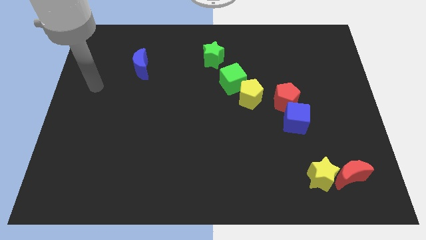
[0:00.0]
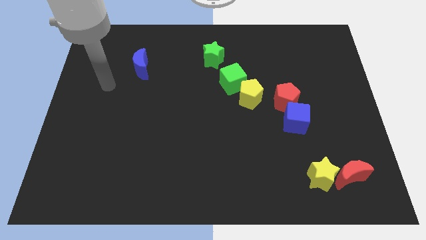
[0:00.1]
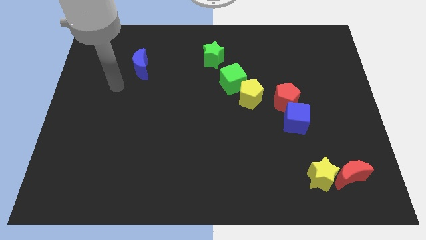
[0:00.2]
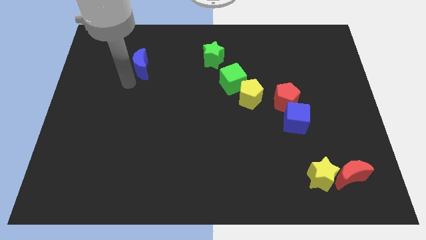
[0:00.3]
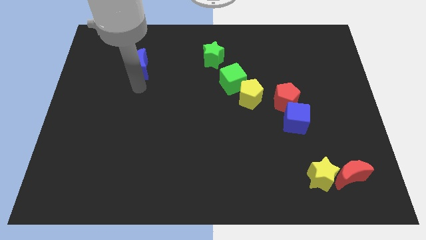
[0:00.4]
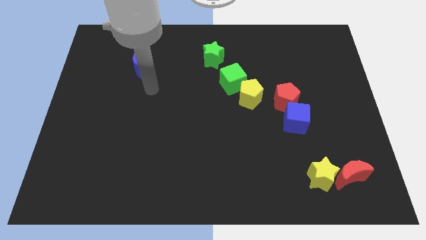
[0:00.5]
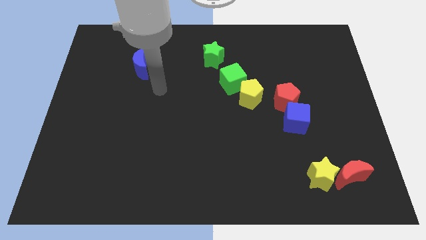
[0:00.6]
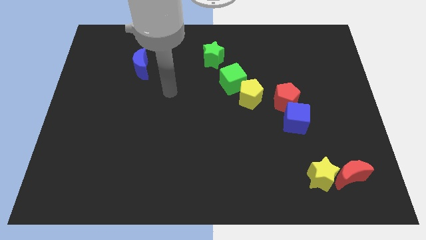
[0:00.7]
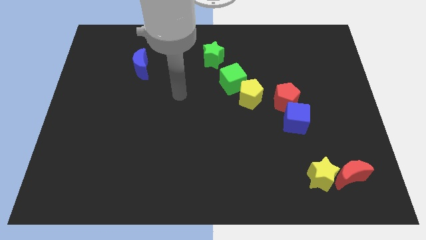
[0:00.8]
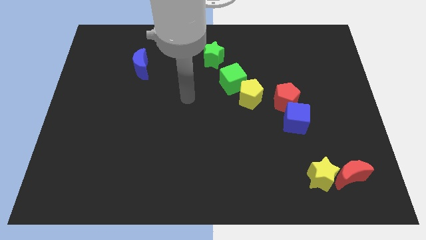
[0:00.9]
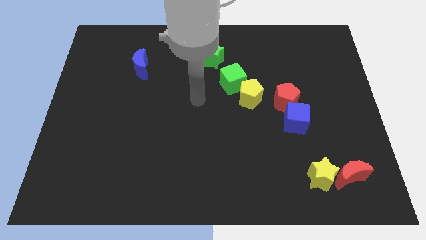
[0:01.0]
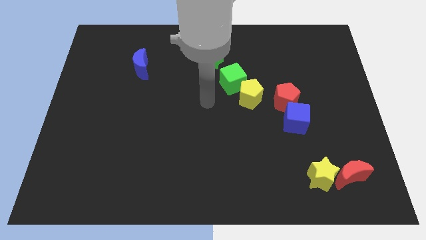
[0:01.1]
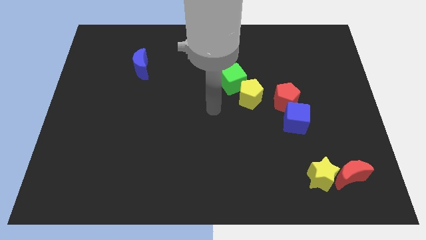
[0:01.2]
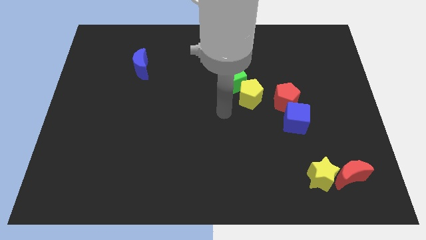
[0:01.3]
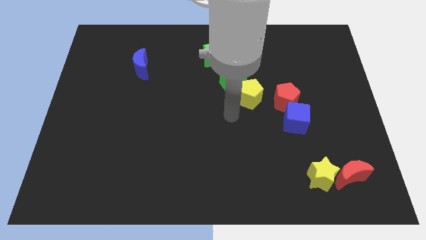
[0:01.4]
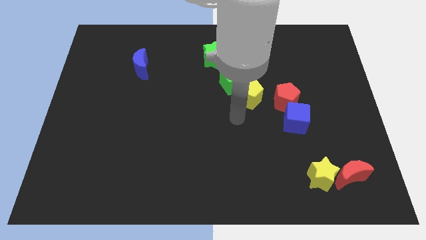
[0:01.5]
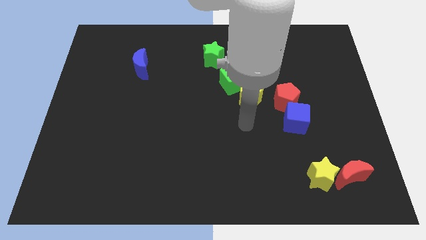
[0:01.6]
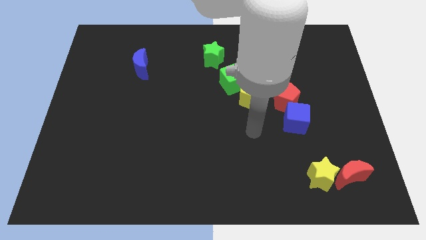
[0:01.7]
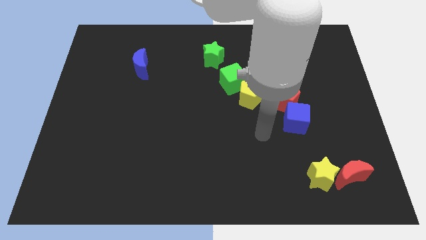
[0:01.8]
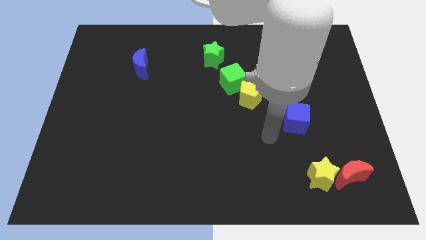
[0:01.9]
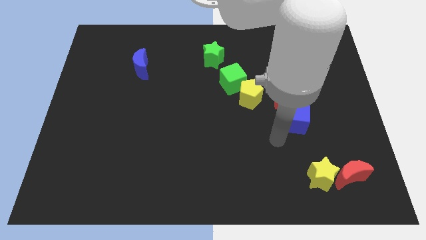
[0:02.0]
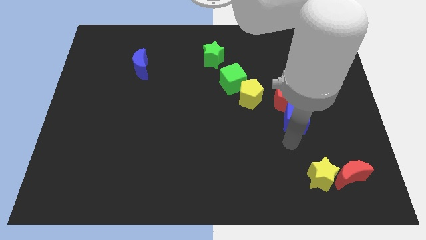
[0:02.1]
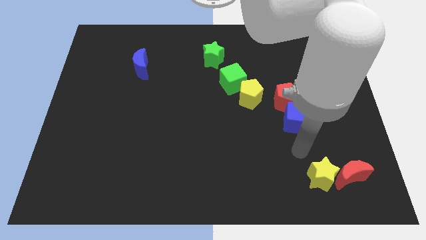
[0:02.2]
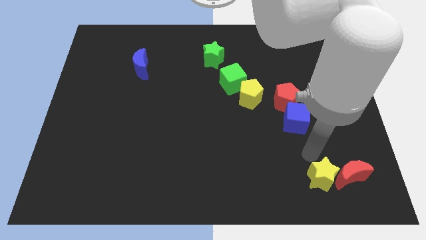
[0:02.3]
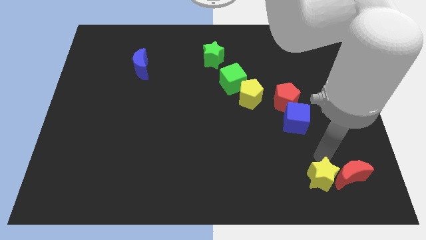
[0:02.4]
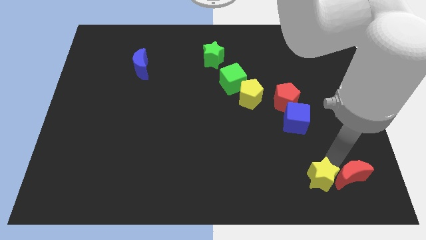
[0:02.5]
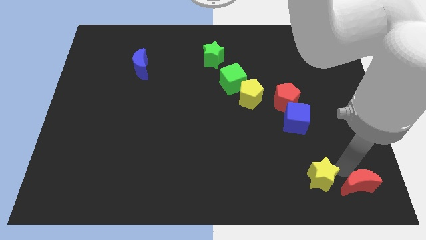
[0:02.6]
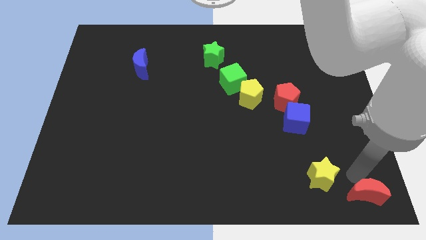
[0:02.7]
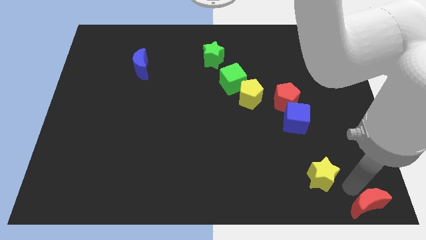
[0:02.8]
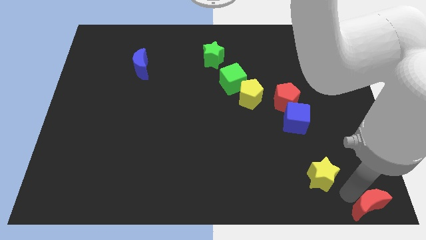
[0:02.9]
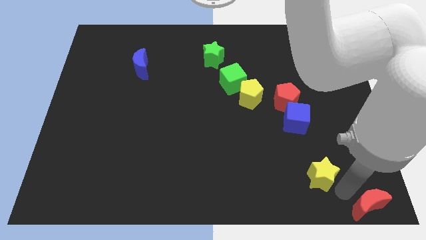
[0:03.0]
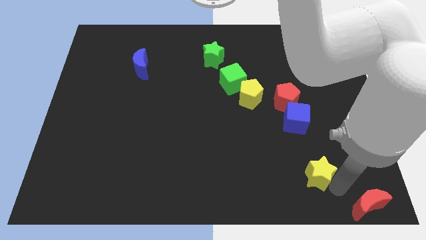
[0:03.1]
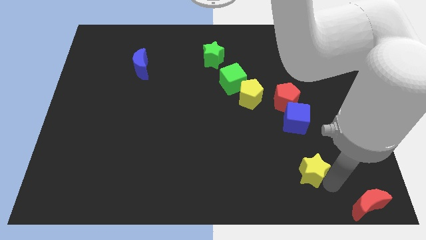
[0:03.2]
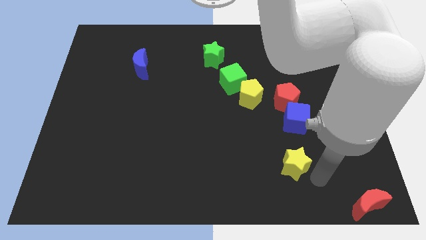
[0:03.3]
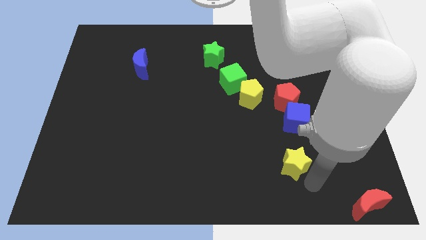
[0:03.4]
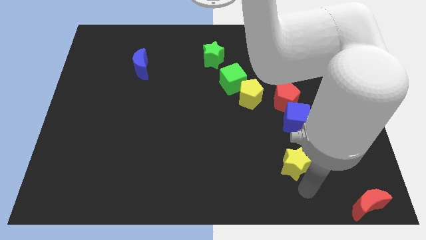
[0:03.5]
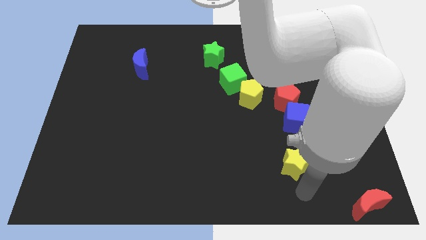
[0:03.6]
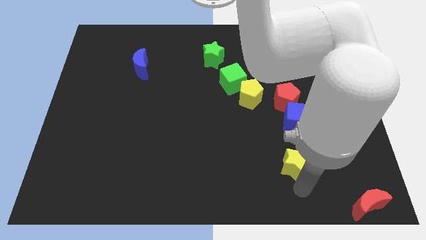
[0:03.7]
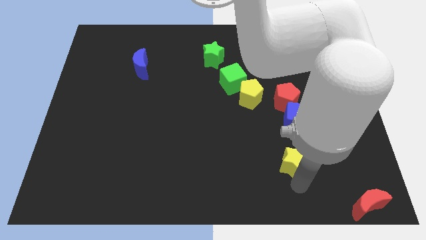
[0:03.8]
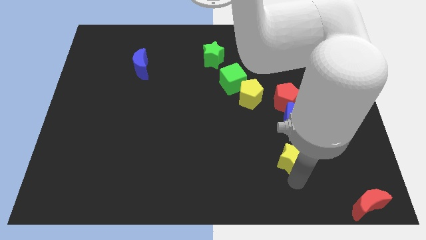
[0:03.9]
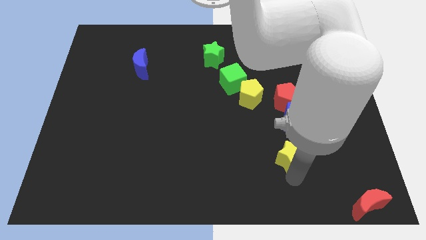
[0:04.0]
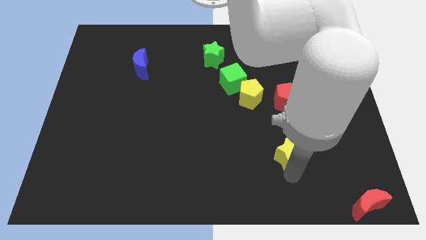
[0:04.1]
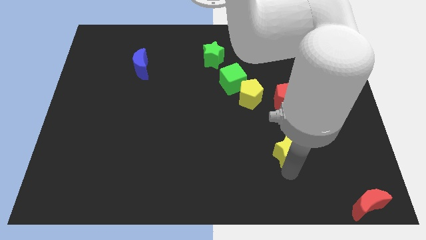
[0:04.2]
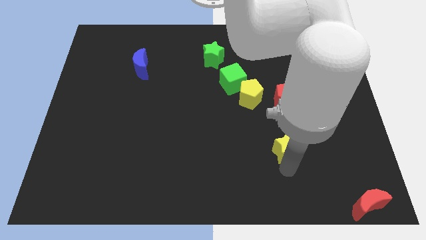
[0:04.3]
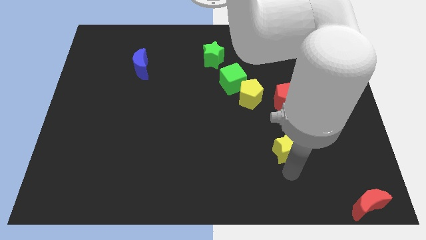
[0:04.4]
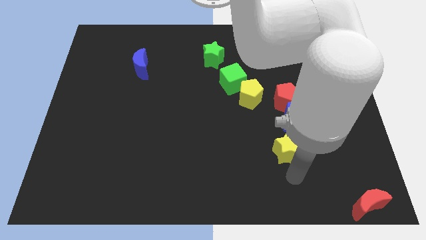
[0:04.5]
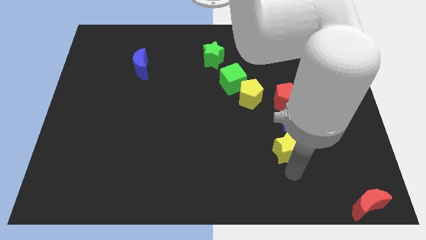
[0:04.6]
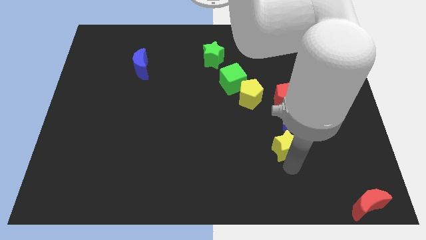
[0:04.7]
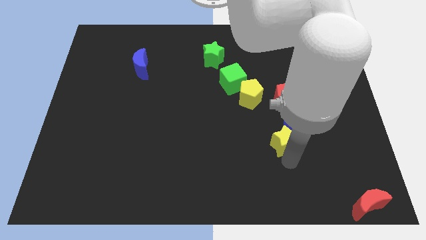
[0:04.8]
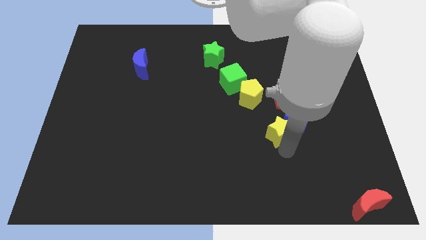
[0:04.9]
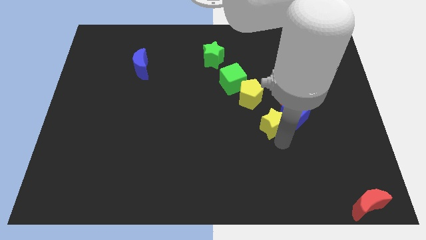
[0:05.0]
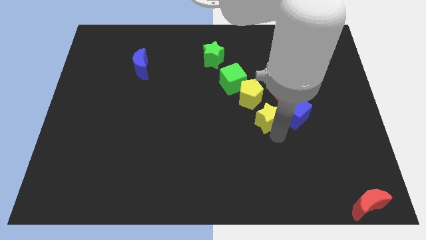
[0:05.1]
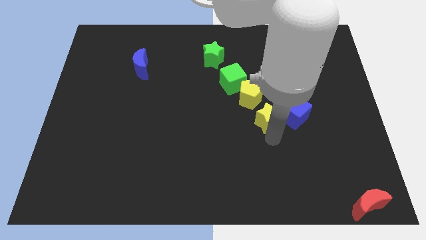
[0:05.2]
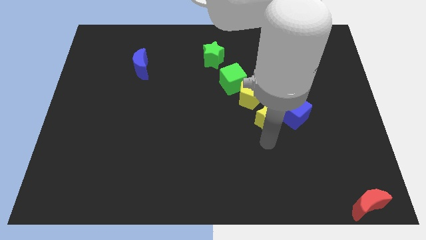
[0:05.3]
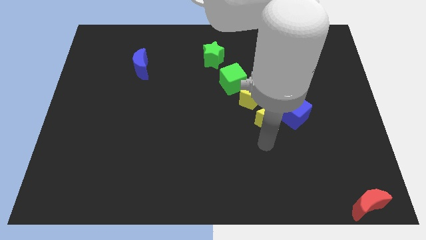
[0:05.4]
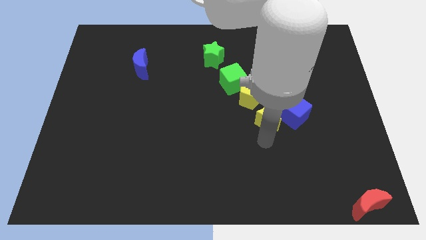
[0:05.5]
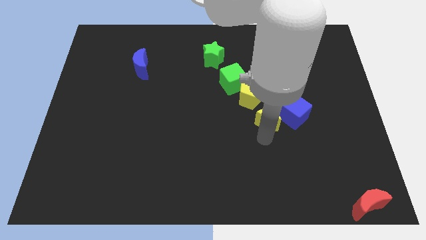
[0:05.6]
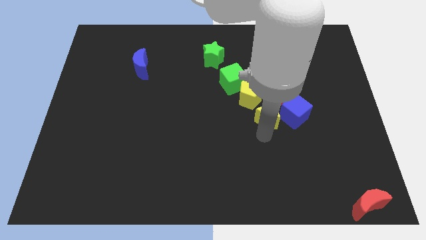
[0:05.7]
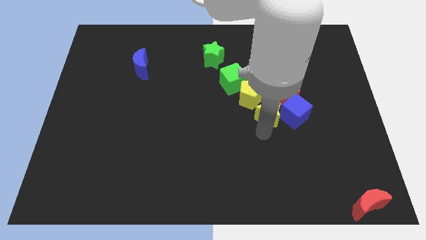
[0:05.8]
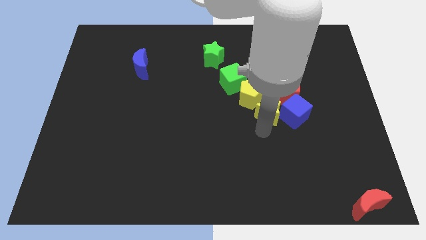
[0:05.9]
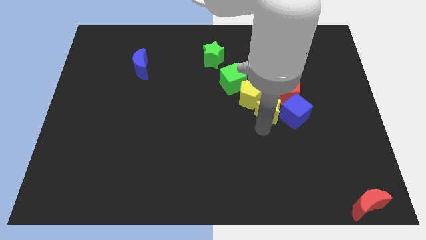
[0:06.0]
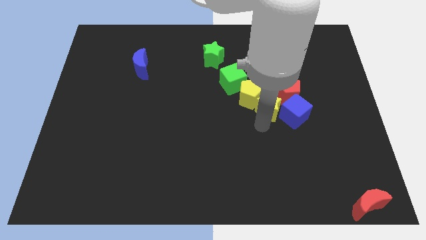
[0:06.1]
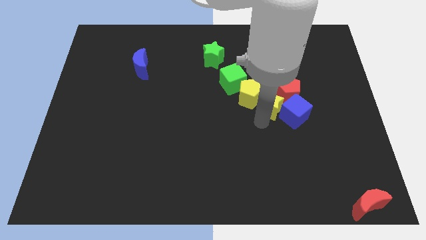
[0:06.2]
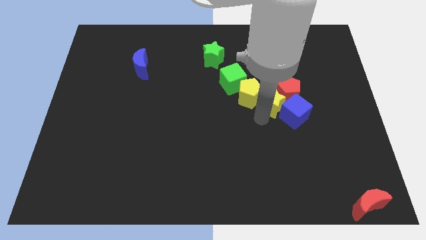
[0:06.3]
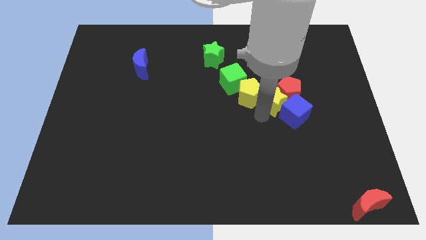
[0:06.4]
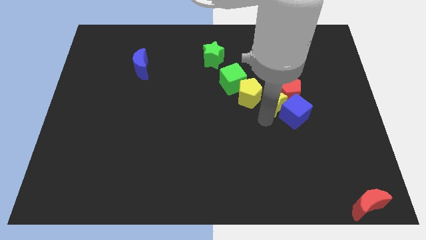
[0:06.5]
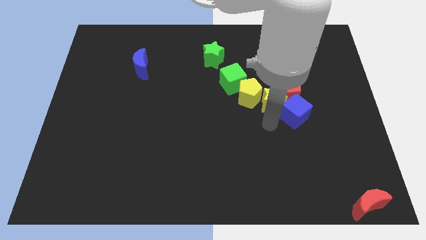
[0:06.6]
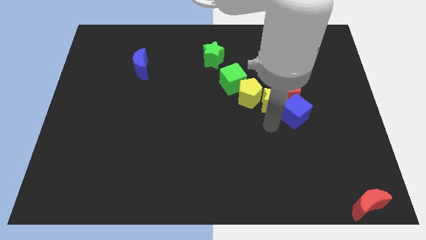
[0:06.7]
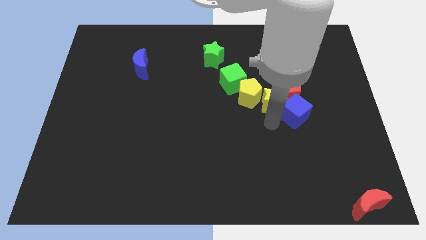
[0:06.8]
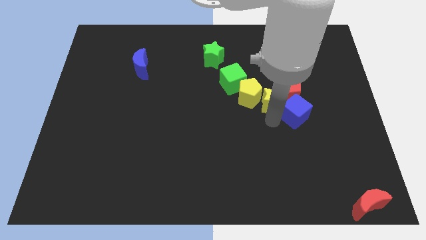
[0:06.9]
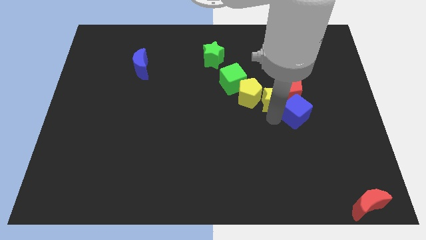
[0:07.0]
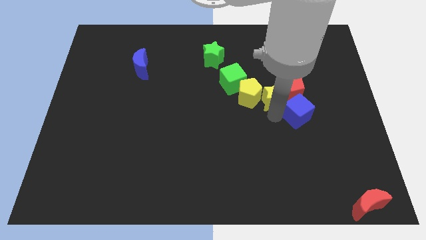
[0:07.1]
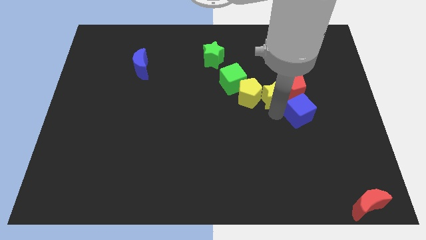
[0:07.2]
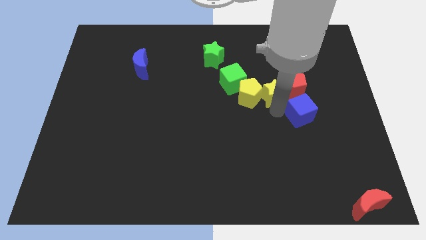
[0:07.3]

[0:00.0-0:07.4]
move the yellow star just right of the green cube
